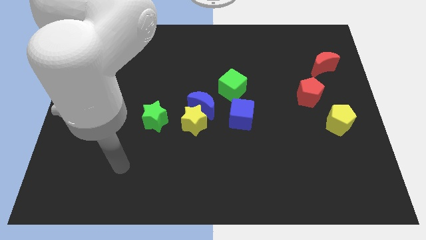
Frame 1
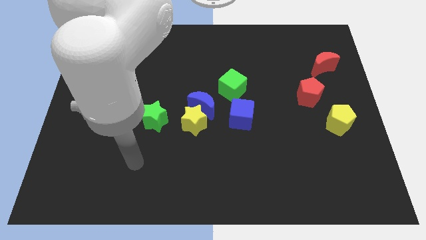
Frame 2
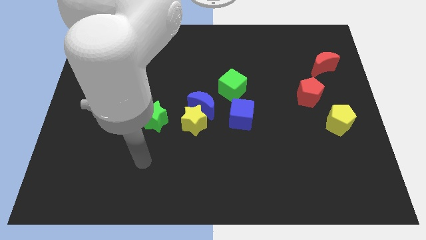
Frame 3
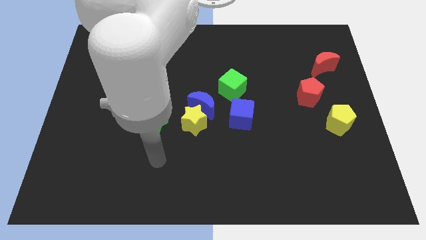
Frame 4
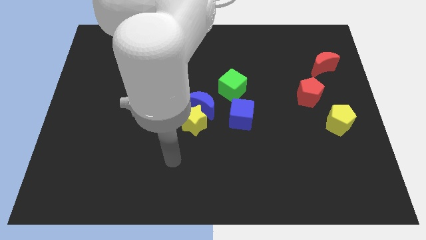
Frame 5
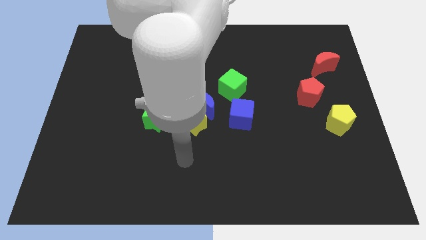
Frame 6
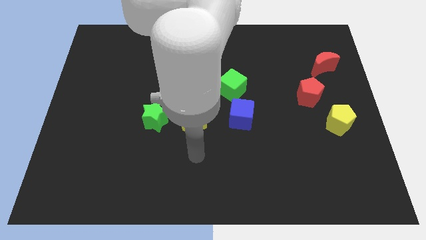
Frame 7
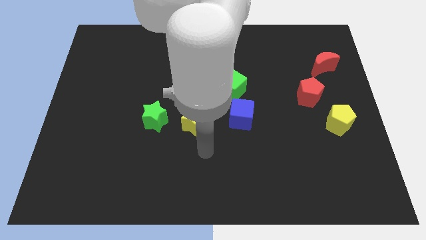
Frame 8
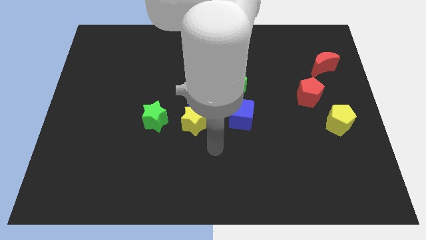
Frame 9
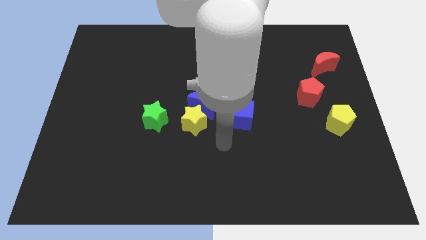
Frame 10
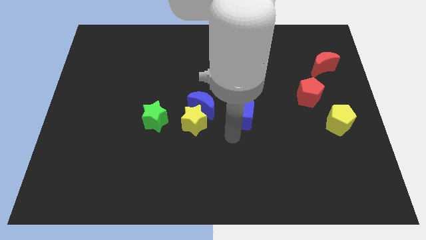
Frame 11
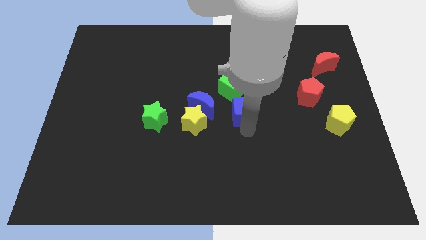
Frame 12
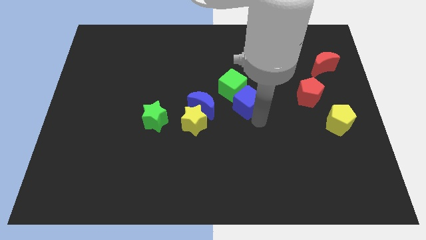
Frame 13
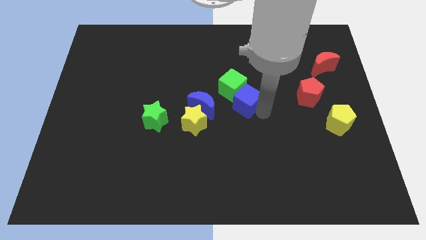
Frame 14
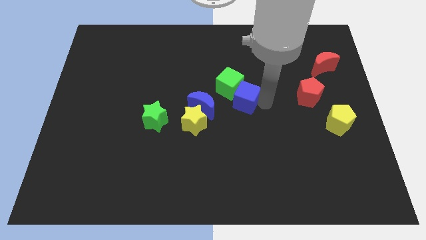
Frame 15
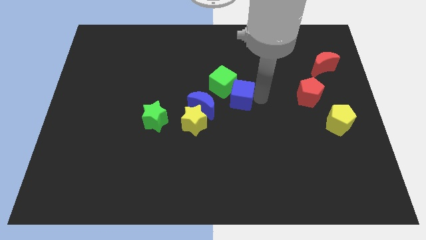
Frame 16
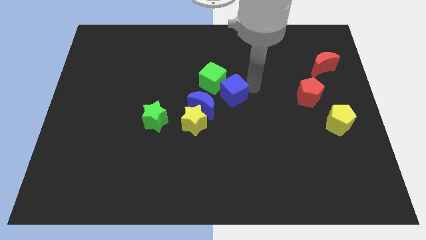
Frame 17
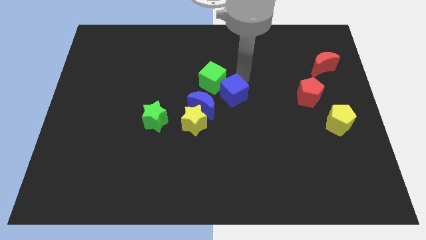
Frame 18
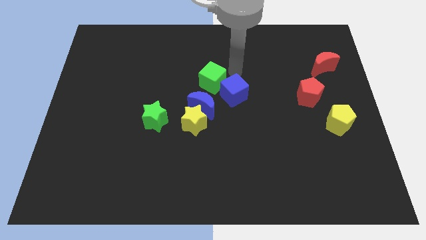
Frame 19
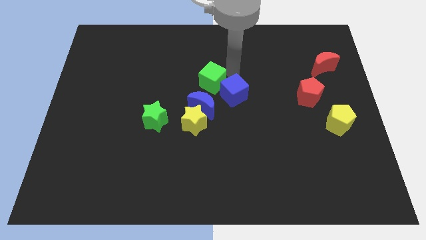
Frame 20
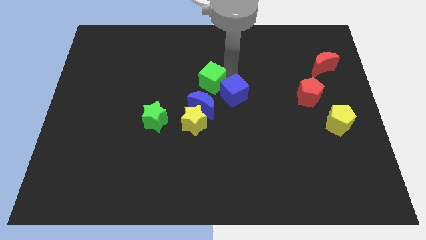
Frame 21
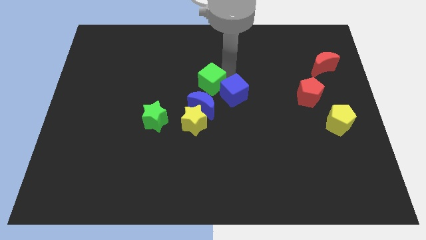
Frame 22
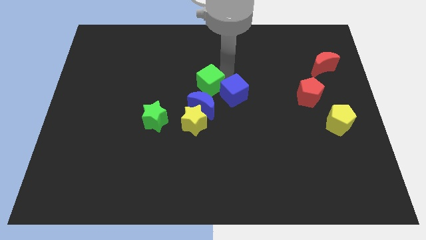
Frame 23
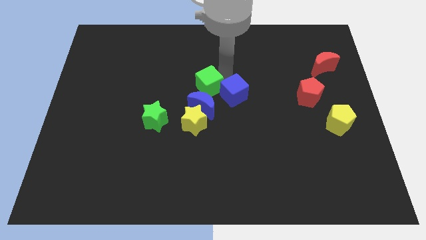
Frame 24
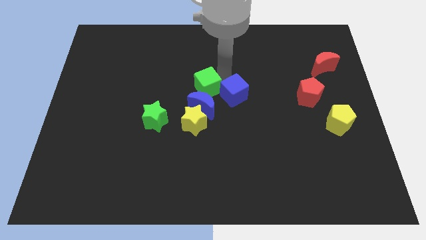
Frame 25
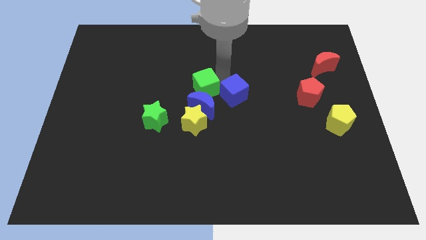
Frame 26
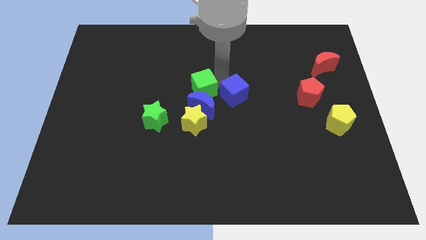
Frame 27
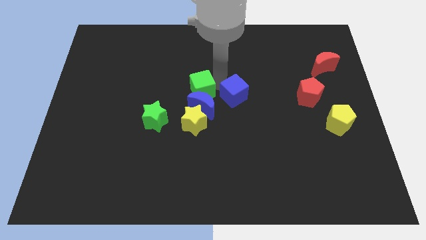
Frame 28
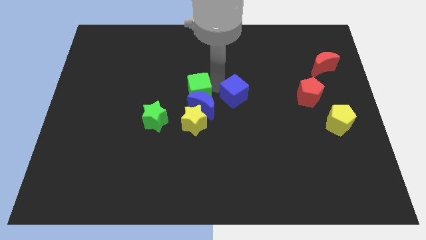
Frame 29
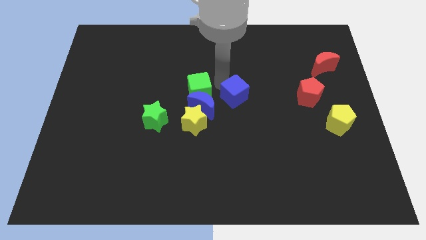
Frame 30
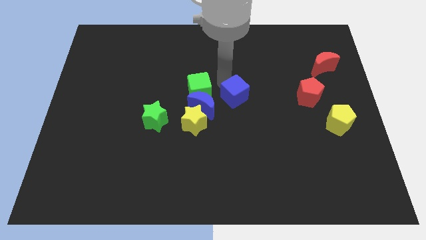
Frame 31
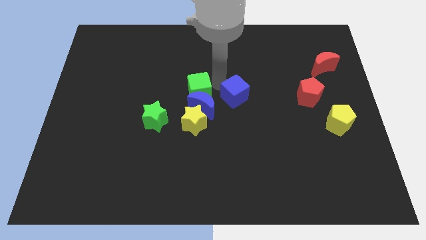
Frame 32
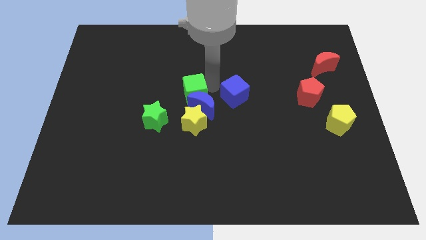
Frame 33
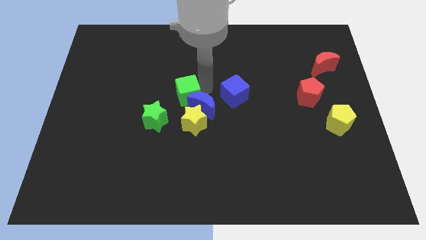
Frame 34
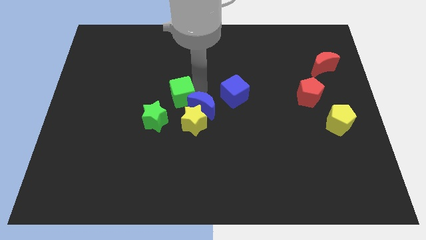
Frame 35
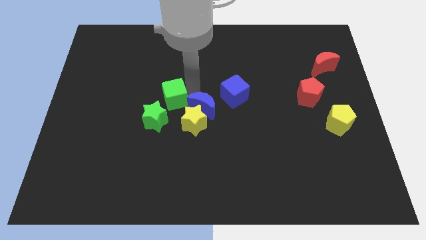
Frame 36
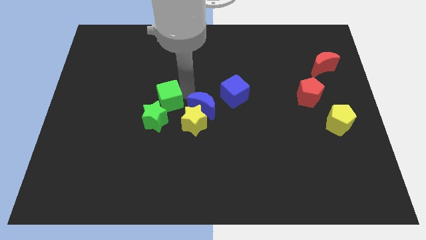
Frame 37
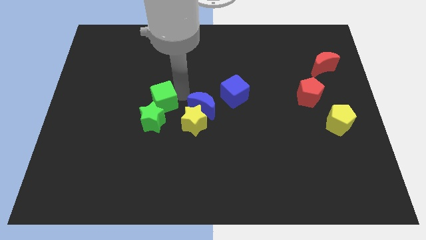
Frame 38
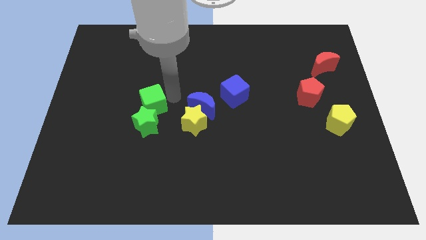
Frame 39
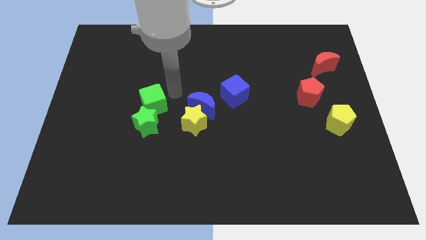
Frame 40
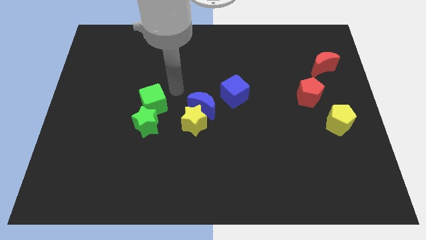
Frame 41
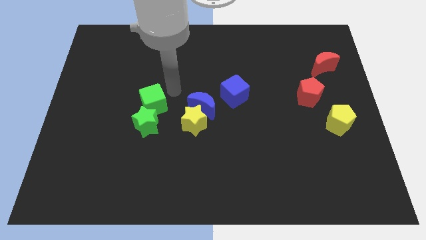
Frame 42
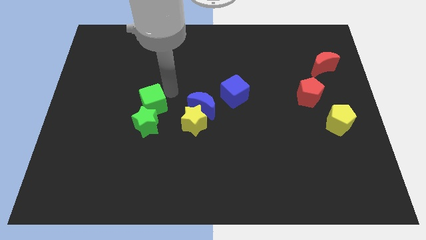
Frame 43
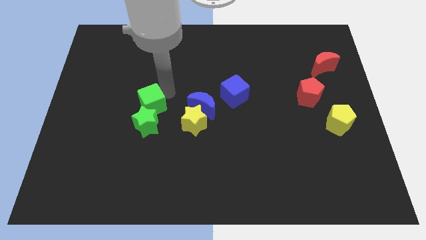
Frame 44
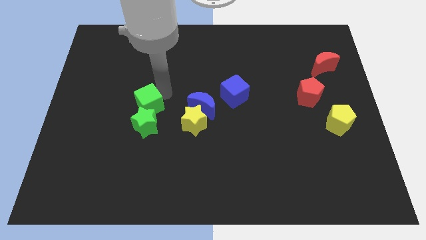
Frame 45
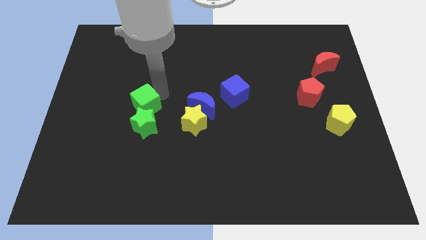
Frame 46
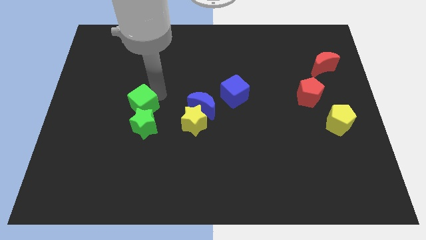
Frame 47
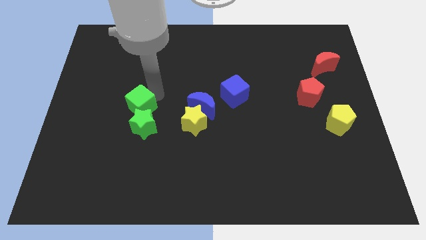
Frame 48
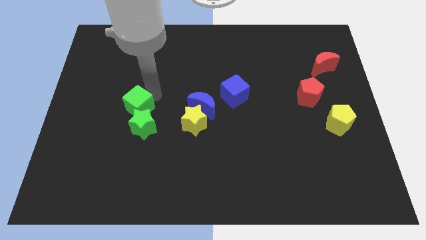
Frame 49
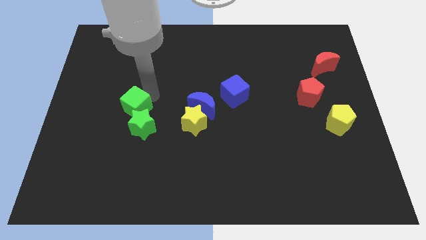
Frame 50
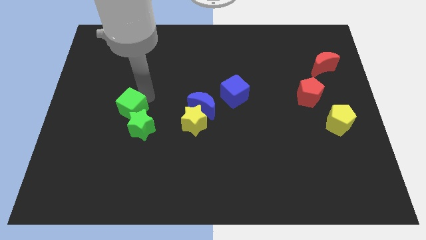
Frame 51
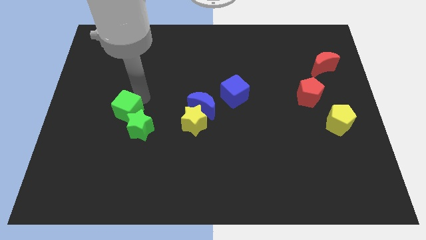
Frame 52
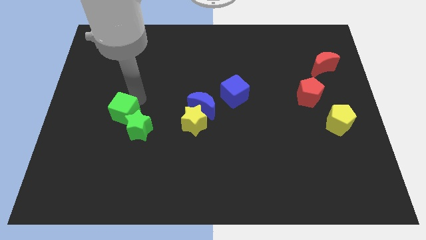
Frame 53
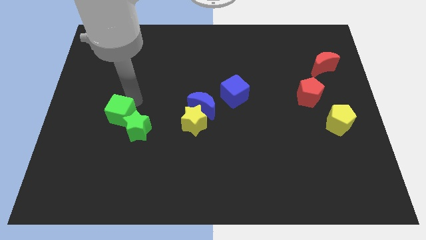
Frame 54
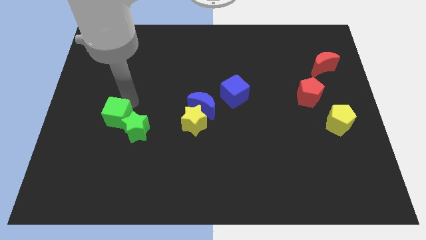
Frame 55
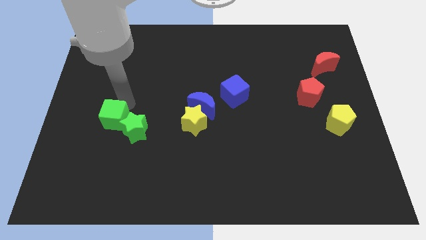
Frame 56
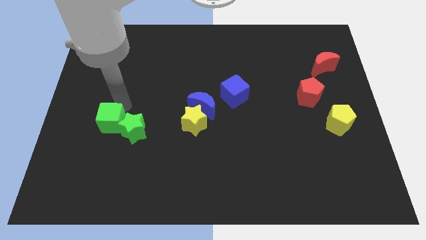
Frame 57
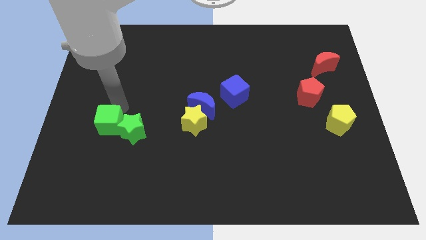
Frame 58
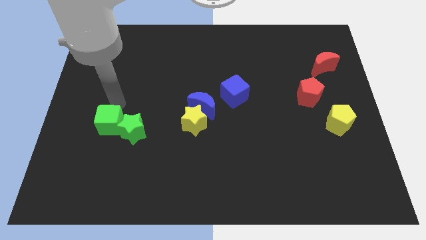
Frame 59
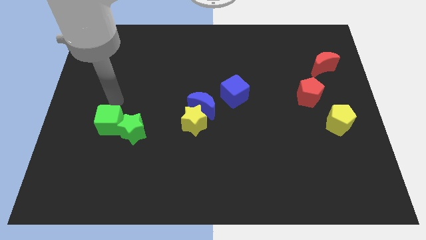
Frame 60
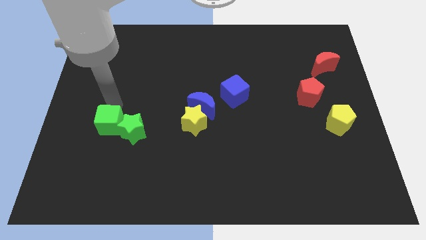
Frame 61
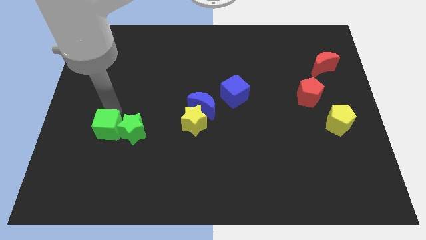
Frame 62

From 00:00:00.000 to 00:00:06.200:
slide the green cube to the bottom left side of the green star
